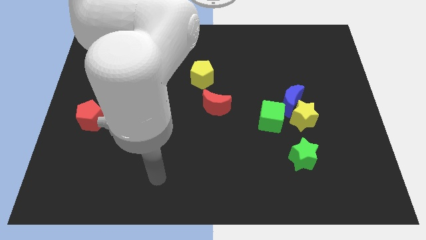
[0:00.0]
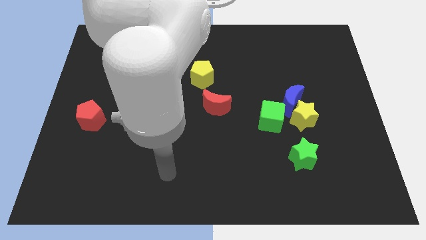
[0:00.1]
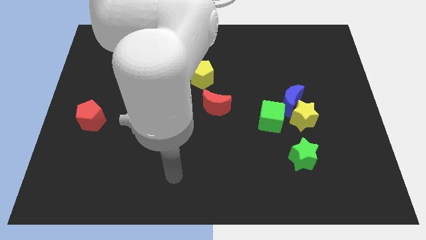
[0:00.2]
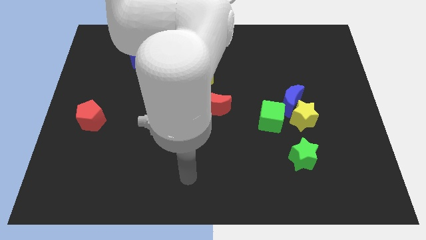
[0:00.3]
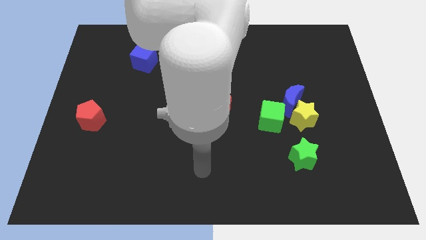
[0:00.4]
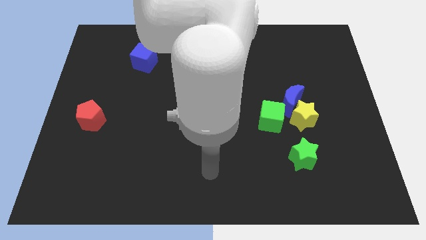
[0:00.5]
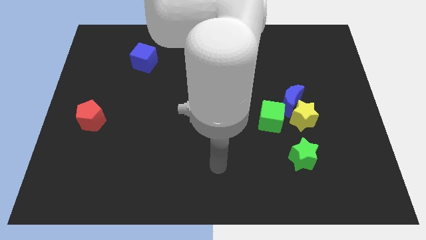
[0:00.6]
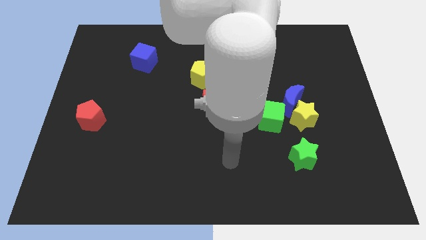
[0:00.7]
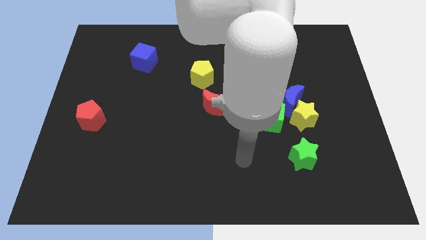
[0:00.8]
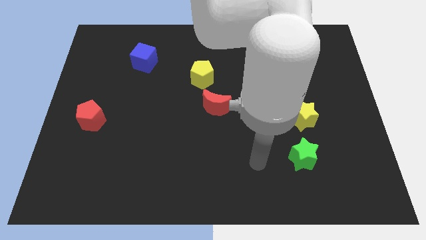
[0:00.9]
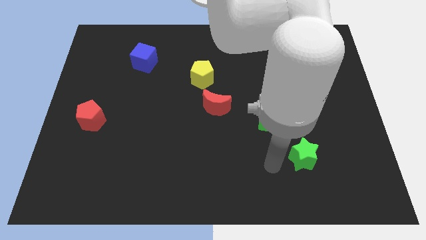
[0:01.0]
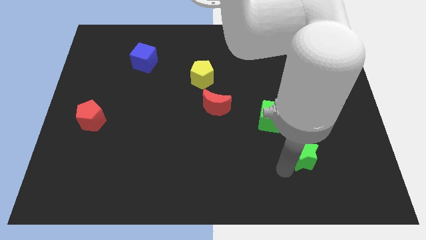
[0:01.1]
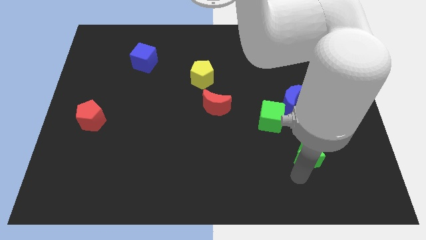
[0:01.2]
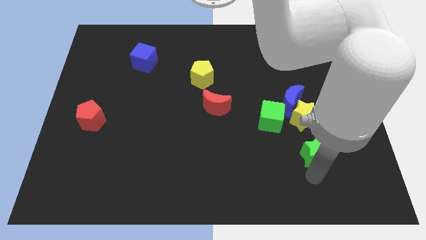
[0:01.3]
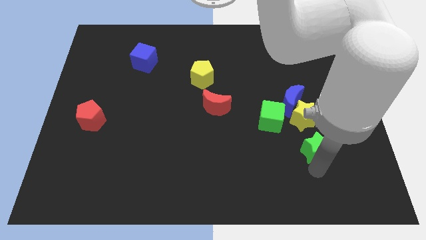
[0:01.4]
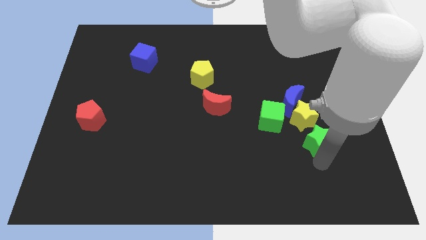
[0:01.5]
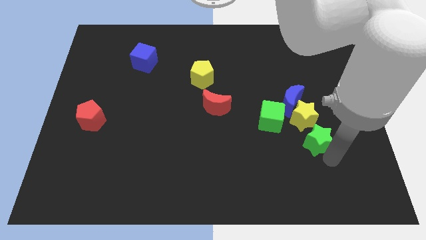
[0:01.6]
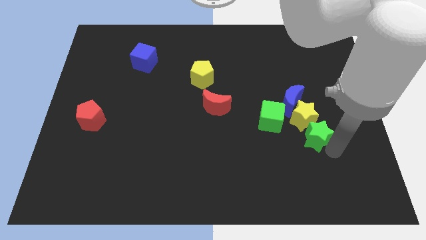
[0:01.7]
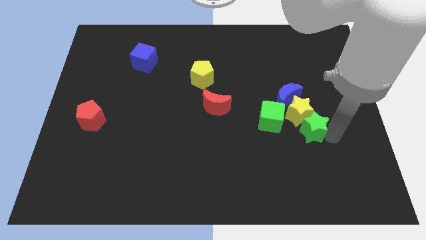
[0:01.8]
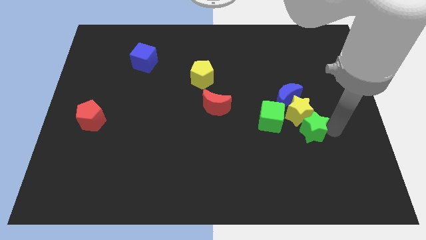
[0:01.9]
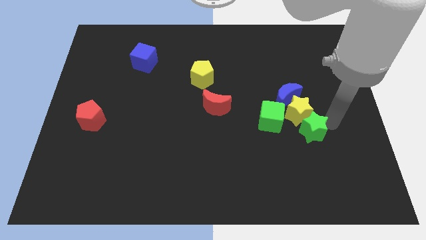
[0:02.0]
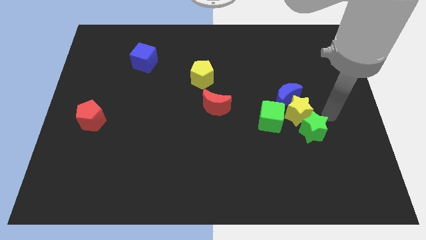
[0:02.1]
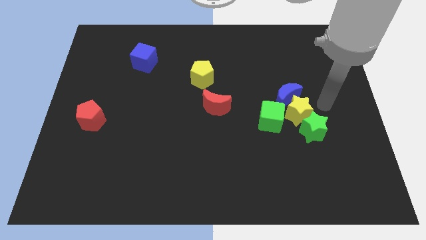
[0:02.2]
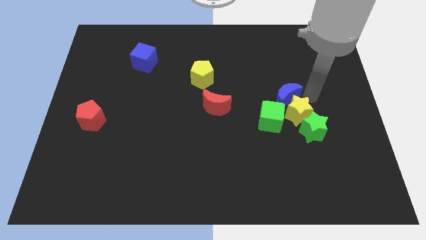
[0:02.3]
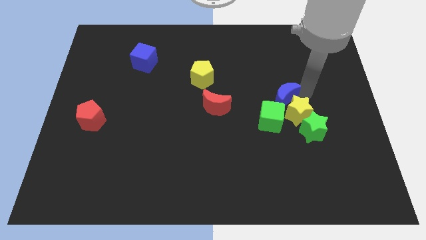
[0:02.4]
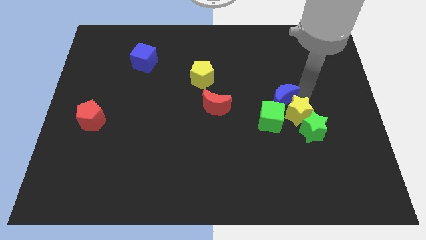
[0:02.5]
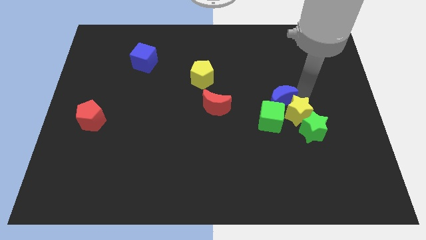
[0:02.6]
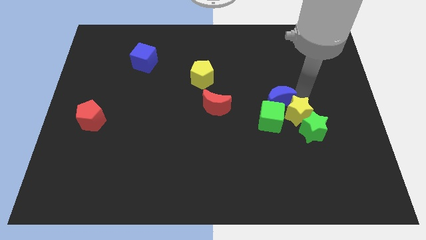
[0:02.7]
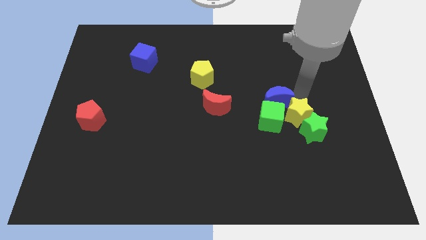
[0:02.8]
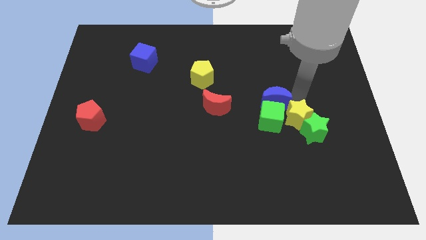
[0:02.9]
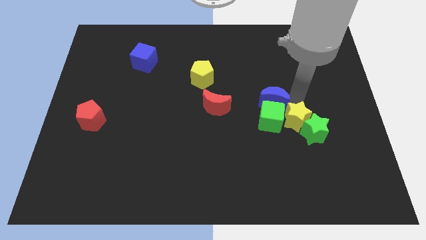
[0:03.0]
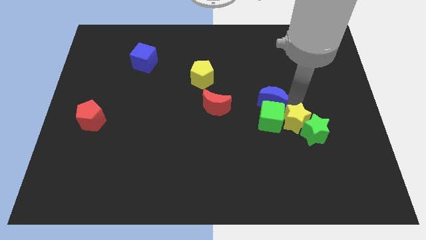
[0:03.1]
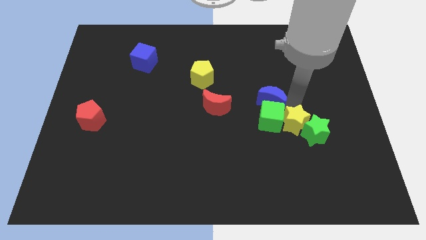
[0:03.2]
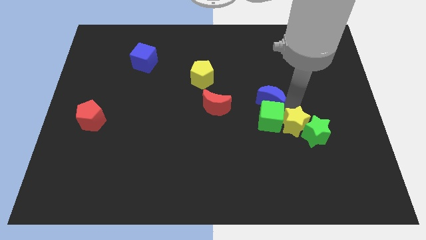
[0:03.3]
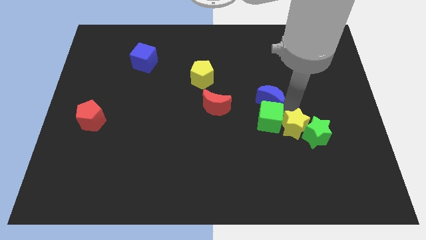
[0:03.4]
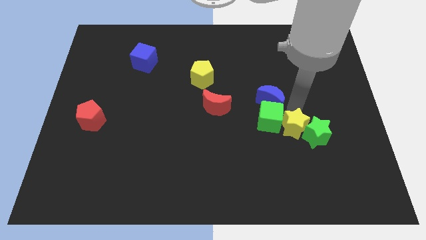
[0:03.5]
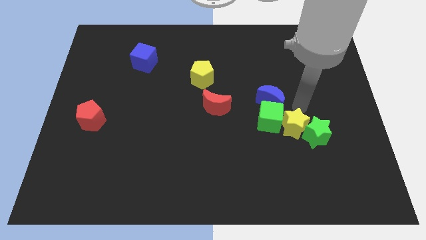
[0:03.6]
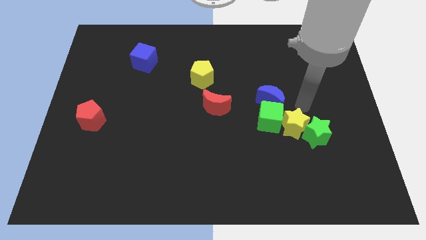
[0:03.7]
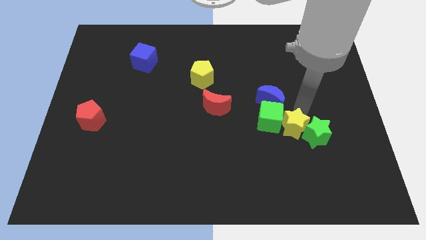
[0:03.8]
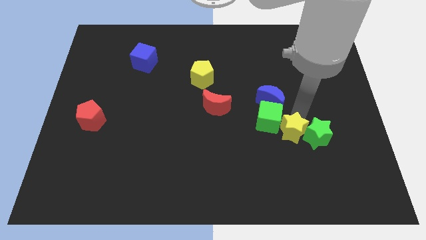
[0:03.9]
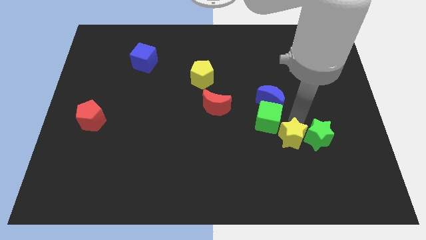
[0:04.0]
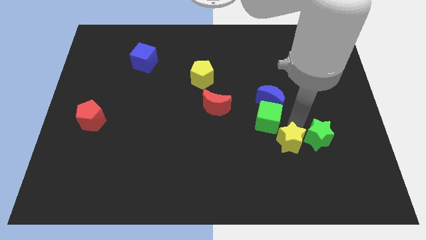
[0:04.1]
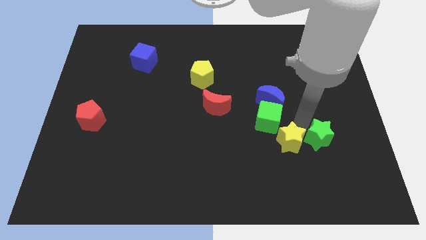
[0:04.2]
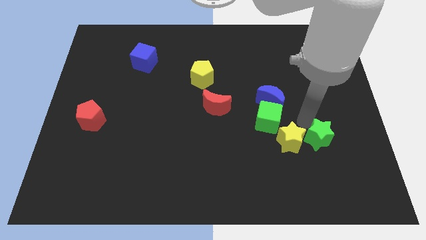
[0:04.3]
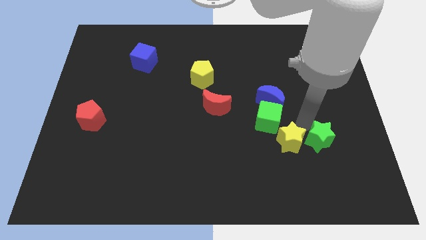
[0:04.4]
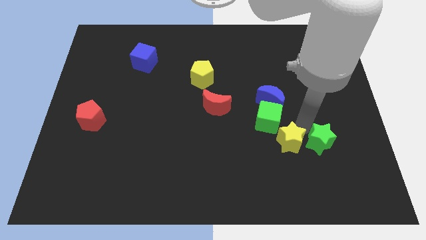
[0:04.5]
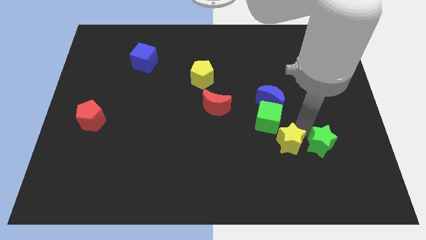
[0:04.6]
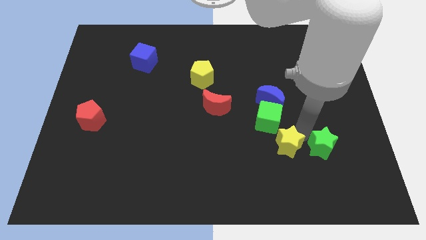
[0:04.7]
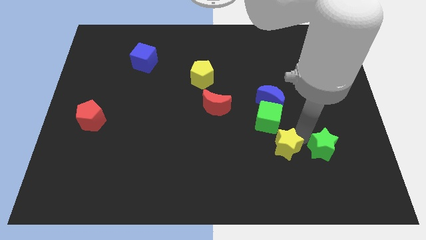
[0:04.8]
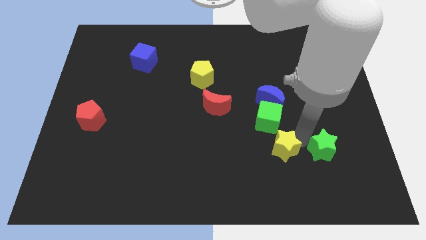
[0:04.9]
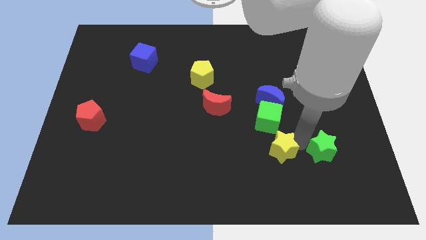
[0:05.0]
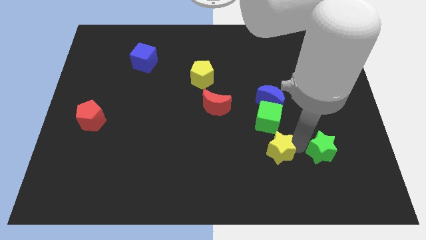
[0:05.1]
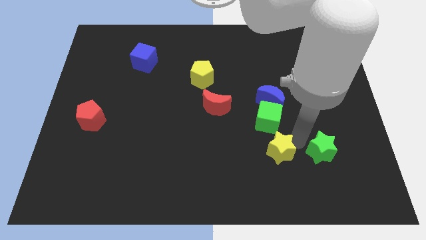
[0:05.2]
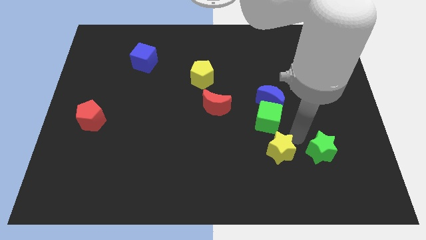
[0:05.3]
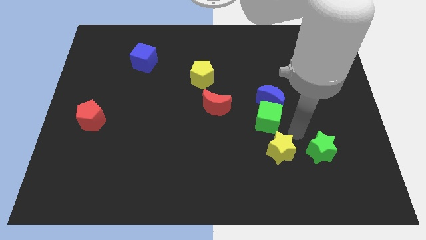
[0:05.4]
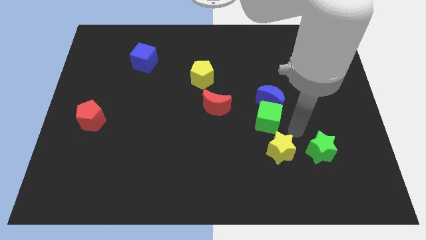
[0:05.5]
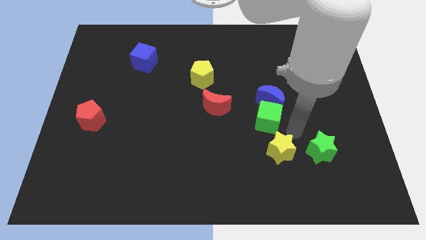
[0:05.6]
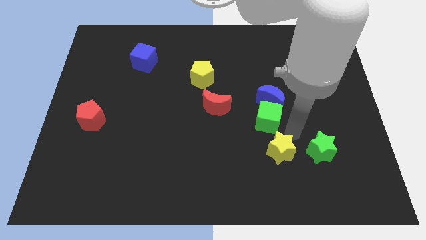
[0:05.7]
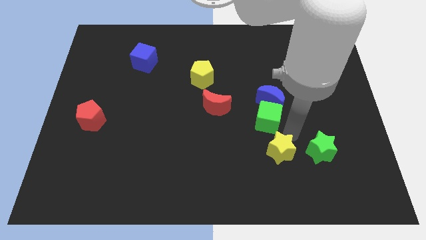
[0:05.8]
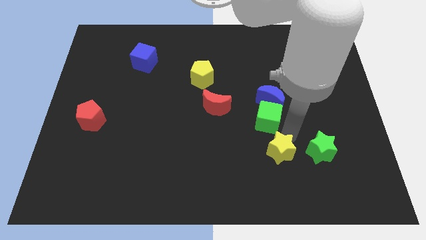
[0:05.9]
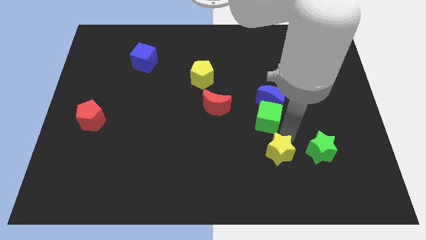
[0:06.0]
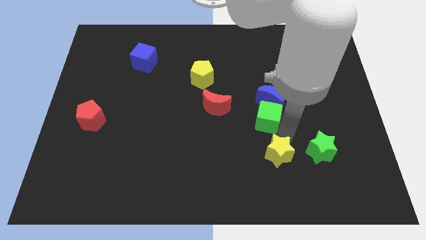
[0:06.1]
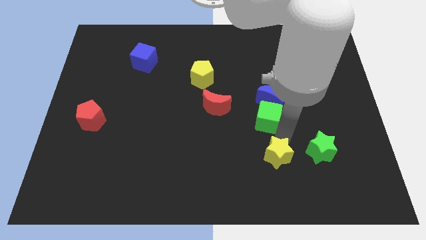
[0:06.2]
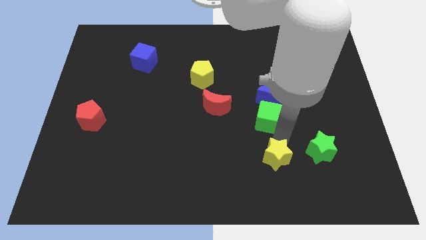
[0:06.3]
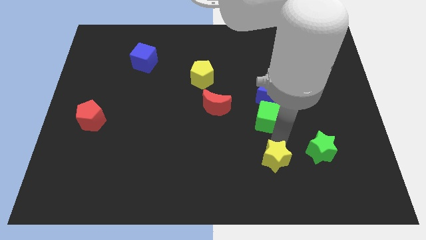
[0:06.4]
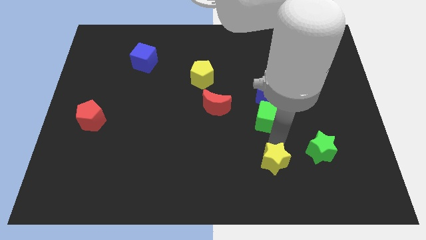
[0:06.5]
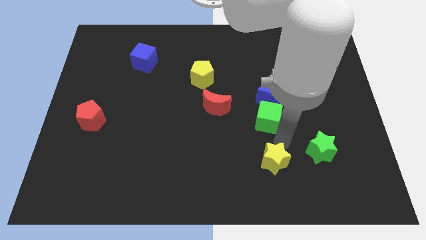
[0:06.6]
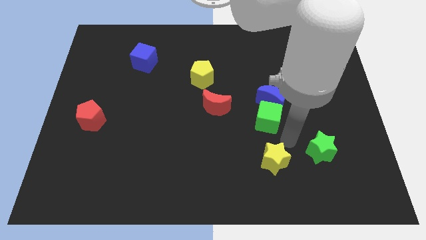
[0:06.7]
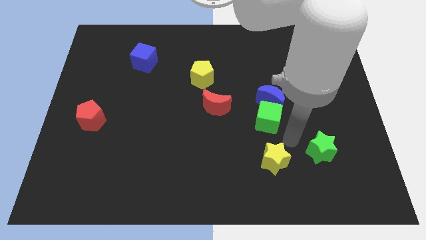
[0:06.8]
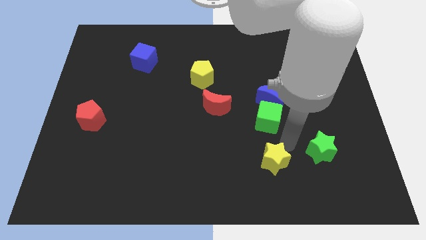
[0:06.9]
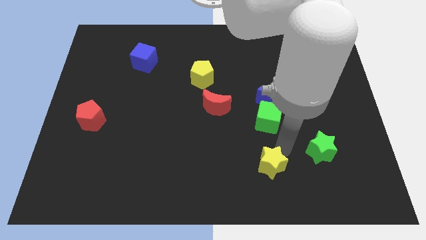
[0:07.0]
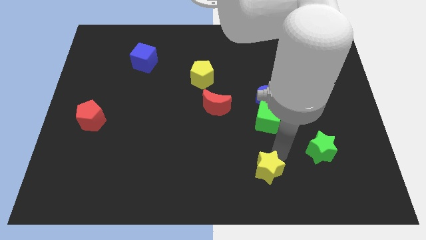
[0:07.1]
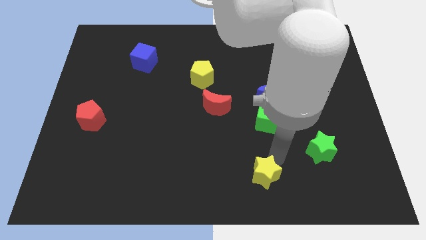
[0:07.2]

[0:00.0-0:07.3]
push the yellow star to the bottom side
